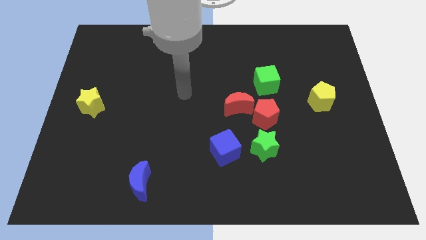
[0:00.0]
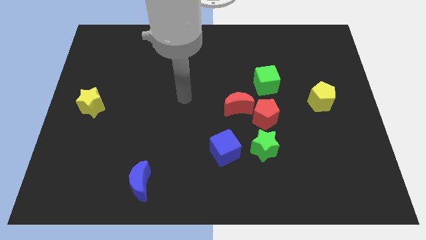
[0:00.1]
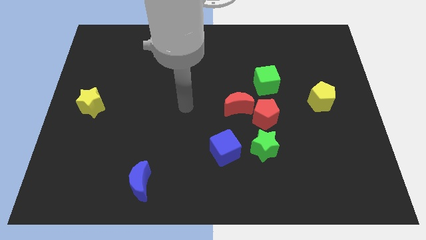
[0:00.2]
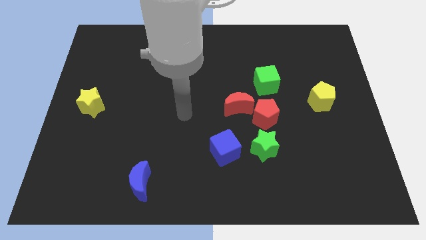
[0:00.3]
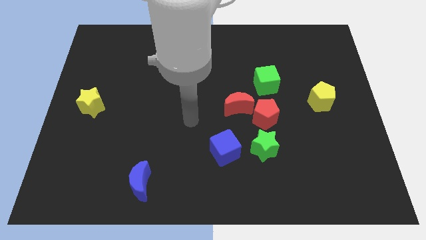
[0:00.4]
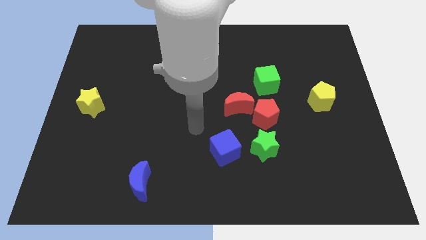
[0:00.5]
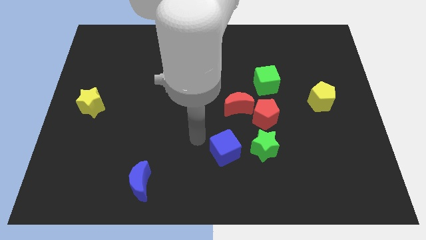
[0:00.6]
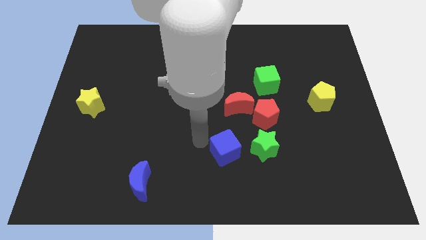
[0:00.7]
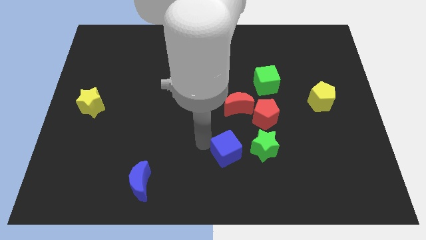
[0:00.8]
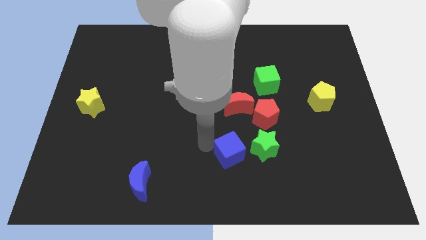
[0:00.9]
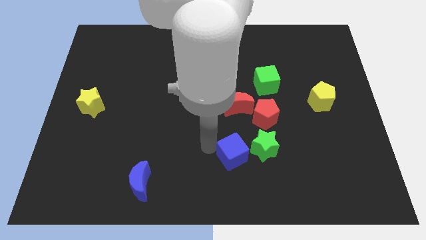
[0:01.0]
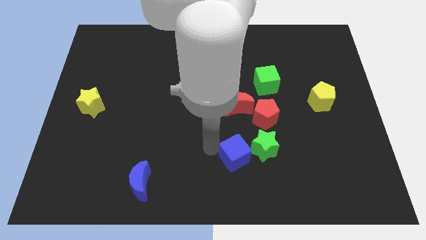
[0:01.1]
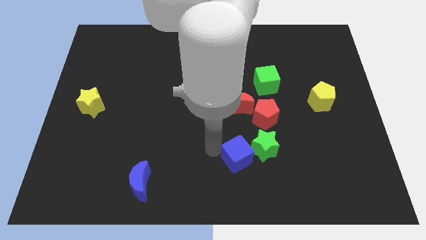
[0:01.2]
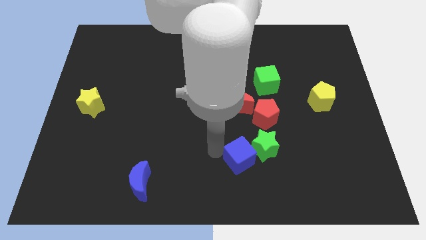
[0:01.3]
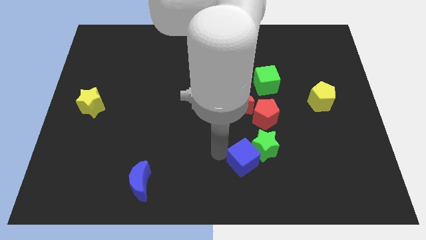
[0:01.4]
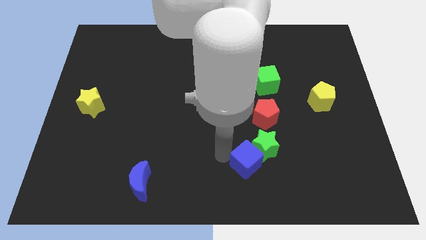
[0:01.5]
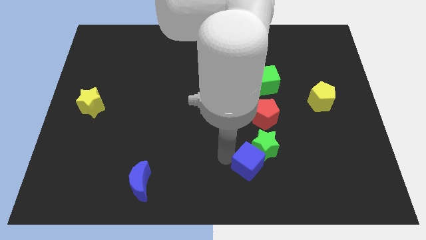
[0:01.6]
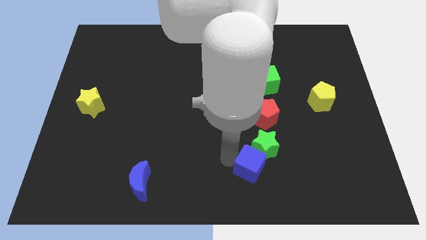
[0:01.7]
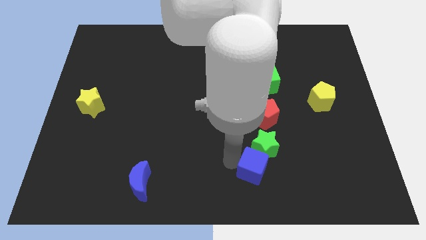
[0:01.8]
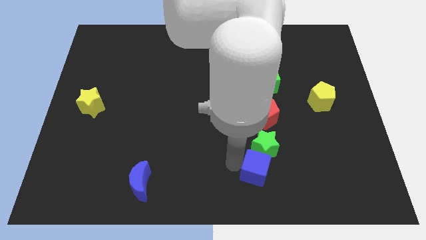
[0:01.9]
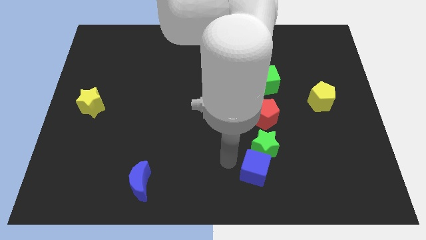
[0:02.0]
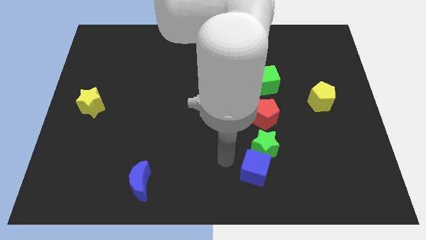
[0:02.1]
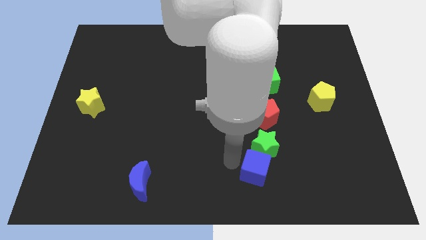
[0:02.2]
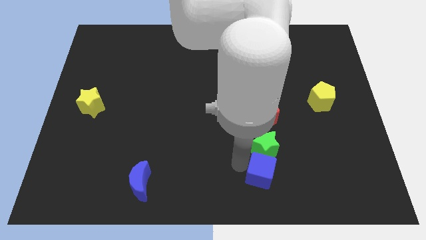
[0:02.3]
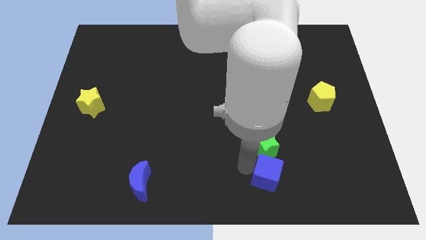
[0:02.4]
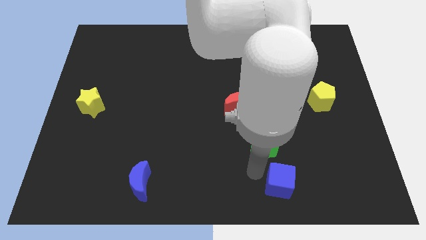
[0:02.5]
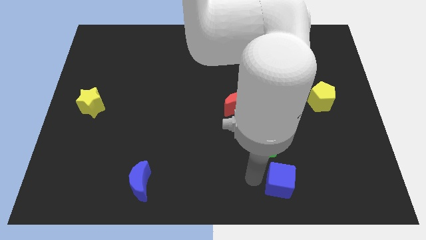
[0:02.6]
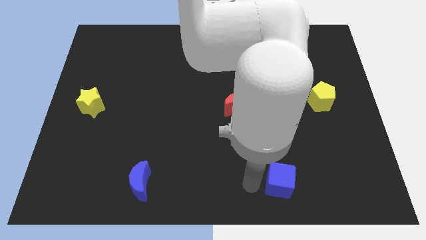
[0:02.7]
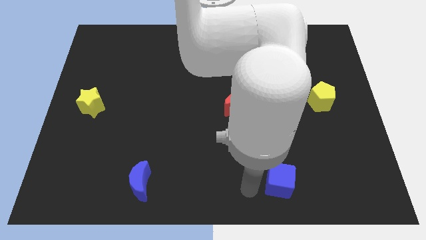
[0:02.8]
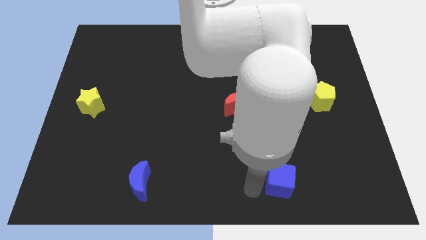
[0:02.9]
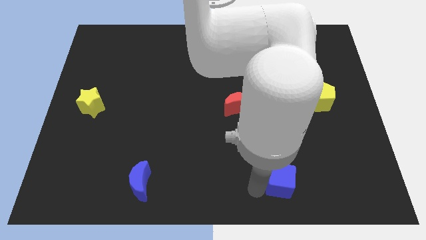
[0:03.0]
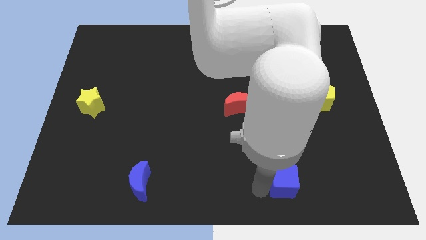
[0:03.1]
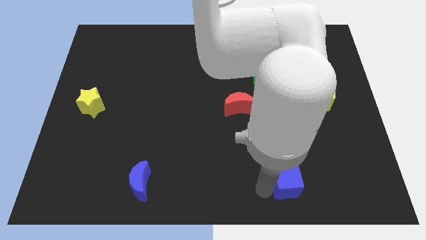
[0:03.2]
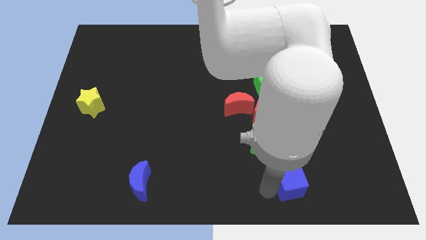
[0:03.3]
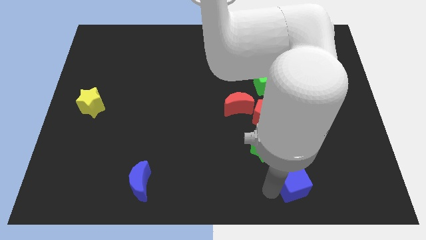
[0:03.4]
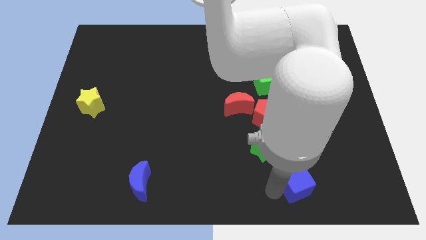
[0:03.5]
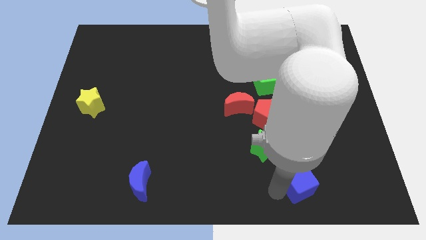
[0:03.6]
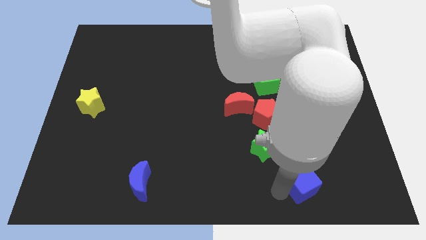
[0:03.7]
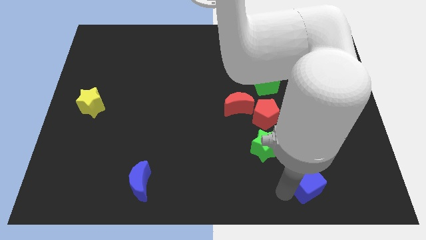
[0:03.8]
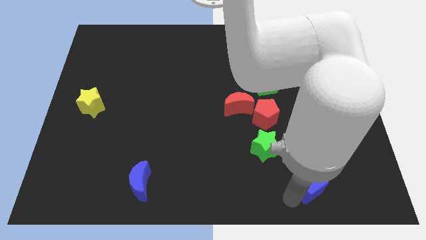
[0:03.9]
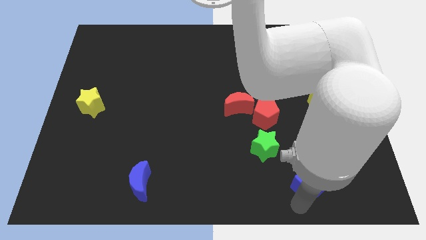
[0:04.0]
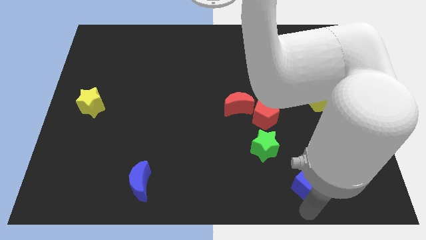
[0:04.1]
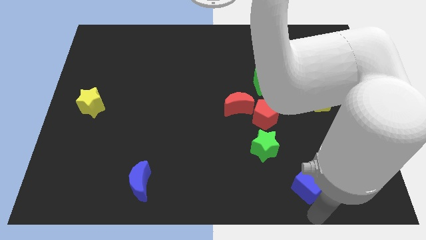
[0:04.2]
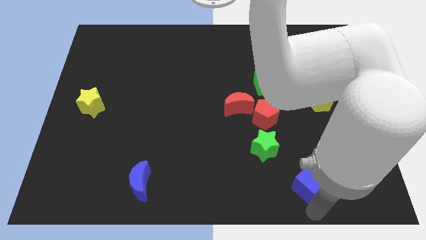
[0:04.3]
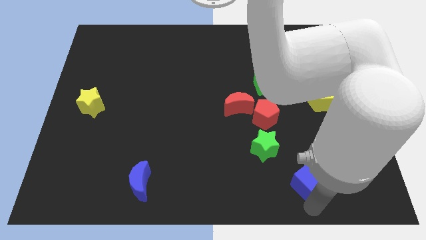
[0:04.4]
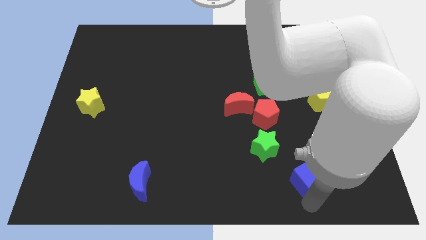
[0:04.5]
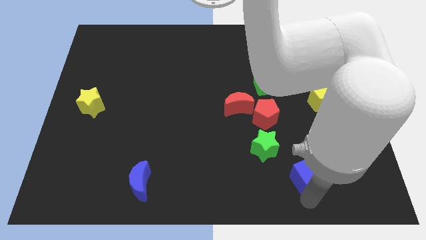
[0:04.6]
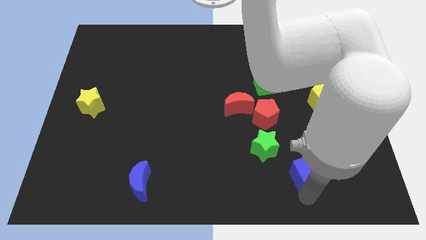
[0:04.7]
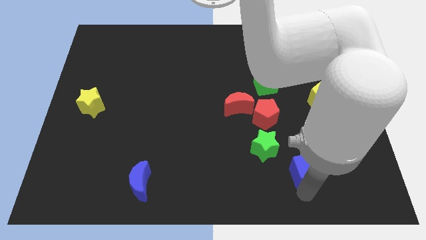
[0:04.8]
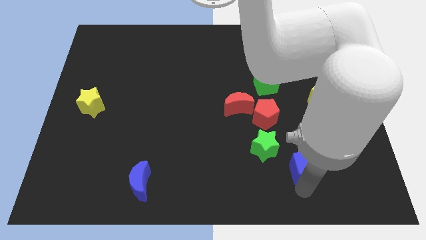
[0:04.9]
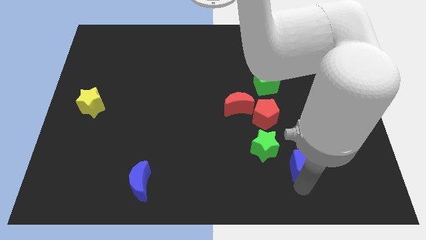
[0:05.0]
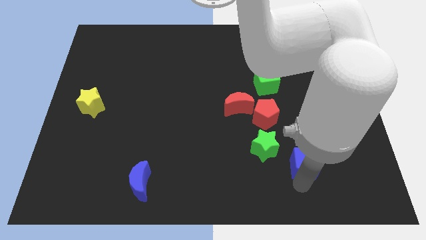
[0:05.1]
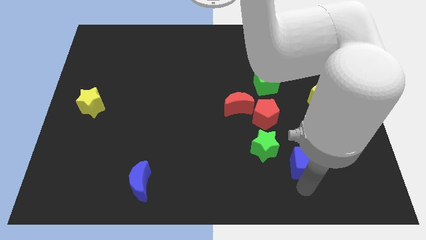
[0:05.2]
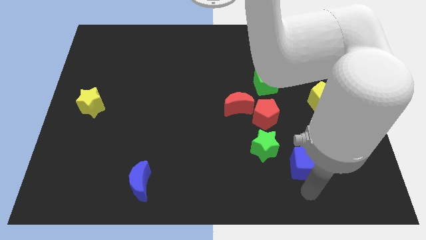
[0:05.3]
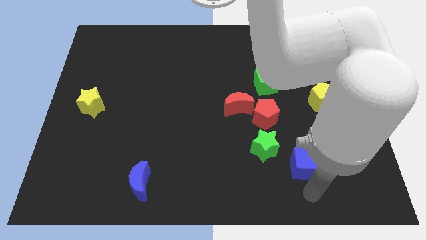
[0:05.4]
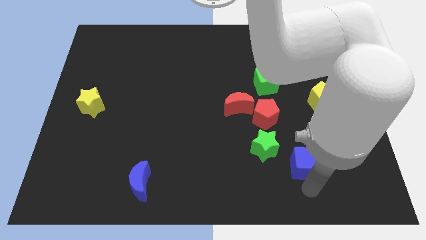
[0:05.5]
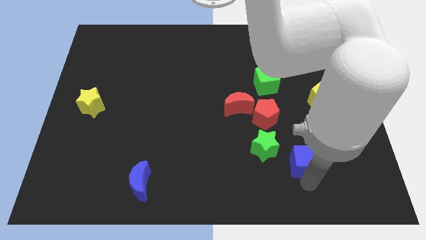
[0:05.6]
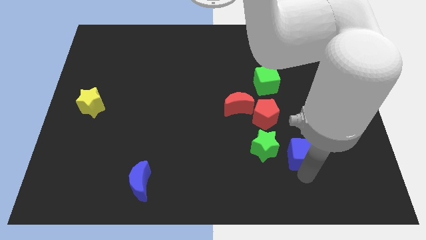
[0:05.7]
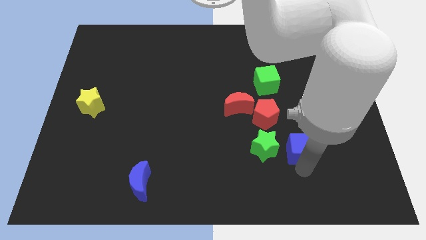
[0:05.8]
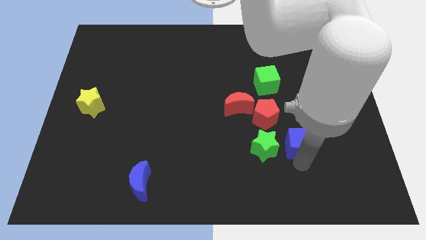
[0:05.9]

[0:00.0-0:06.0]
slide the blue cube a little diagonally up and right

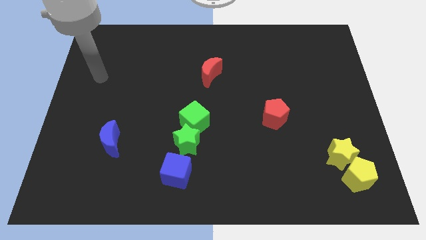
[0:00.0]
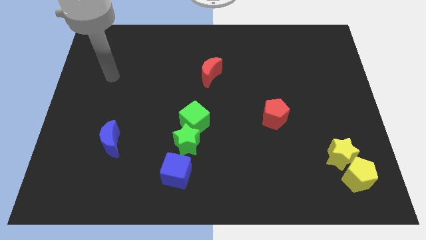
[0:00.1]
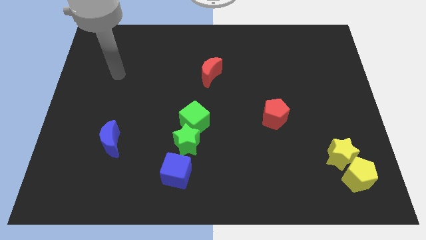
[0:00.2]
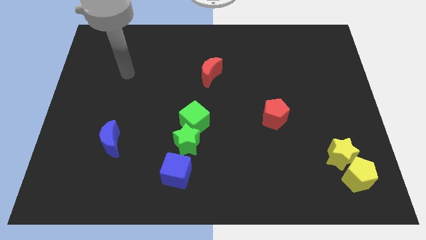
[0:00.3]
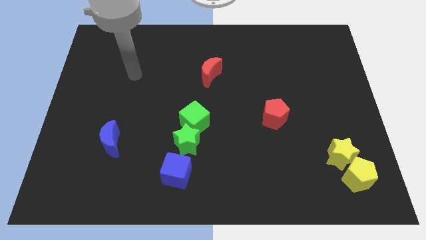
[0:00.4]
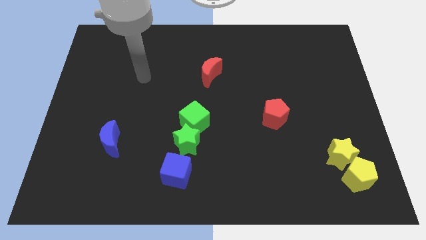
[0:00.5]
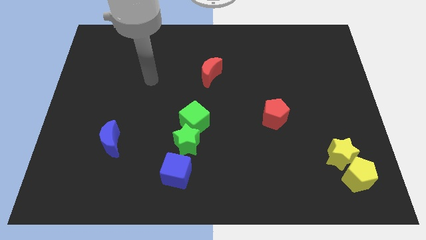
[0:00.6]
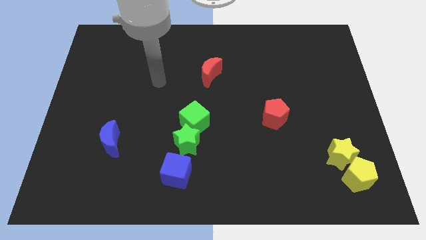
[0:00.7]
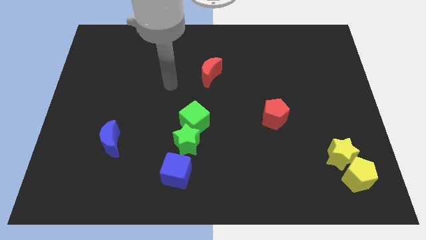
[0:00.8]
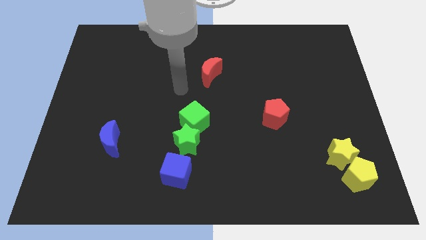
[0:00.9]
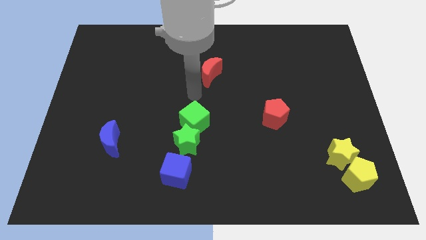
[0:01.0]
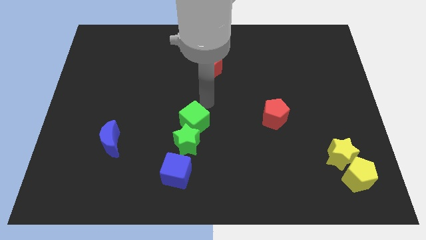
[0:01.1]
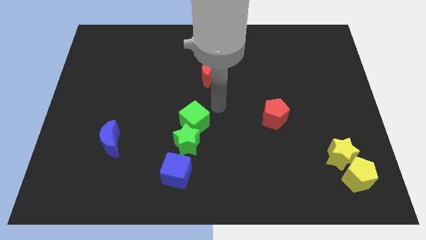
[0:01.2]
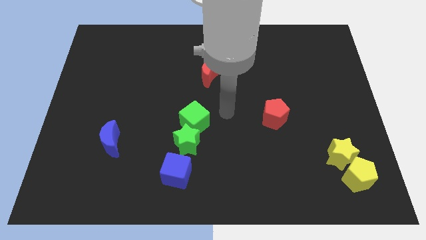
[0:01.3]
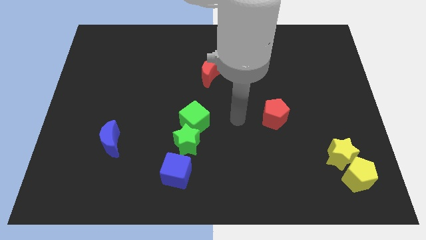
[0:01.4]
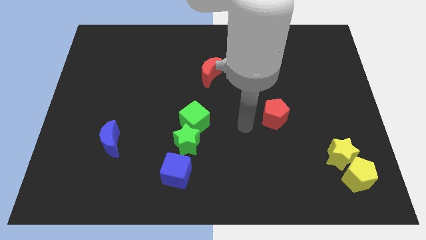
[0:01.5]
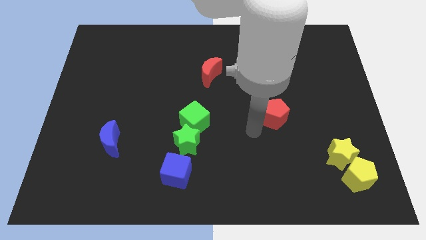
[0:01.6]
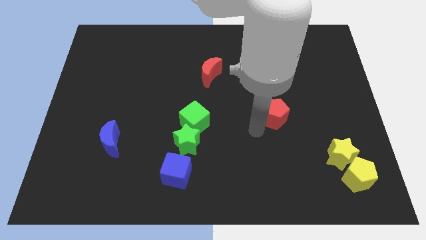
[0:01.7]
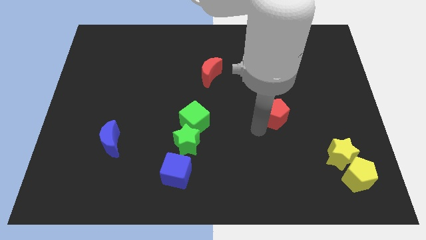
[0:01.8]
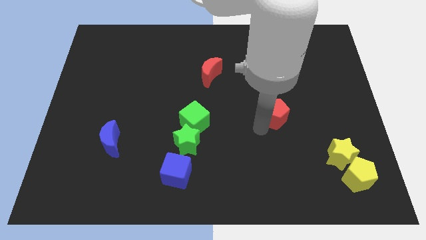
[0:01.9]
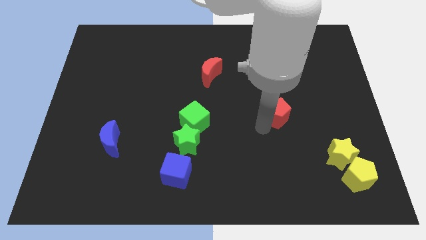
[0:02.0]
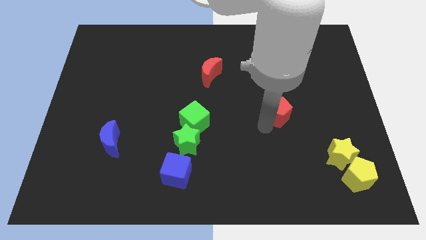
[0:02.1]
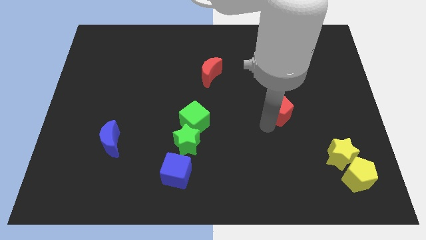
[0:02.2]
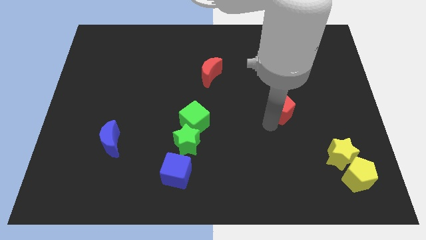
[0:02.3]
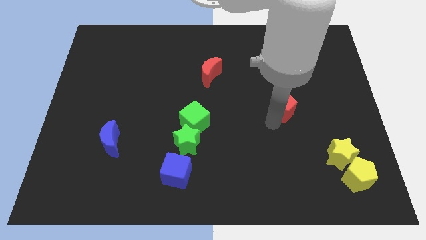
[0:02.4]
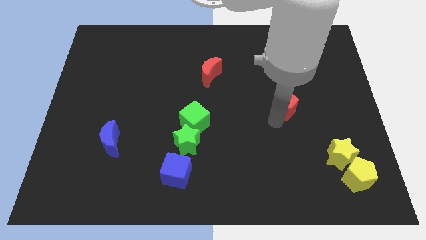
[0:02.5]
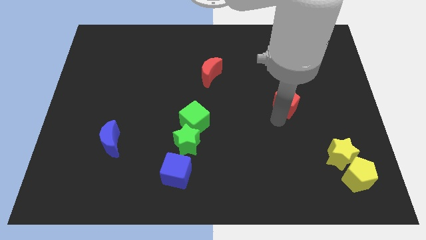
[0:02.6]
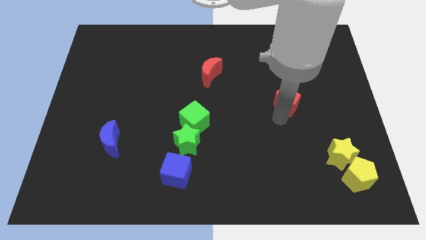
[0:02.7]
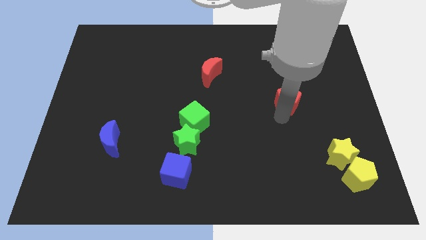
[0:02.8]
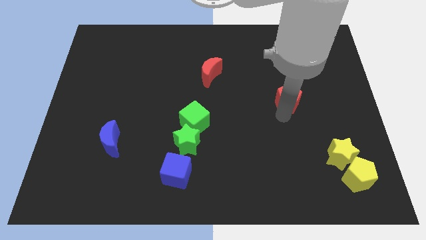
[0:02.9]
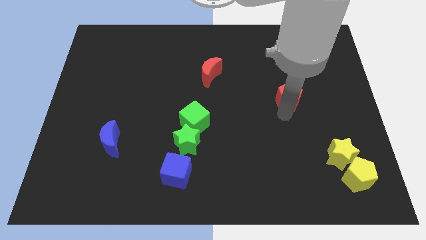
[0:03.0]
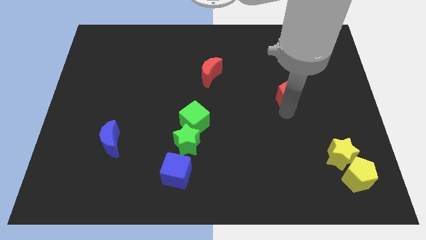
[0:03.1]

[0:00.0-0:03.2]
slightly push the red pentagon upwards and then to the right
